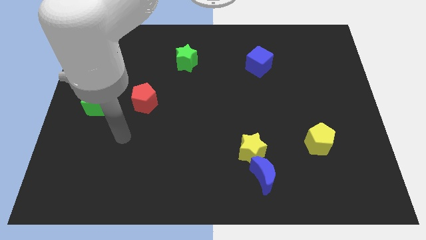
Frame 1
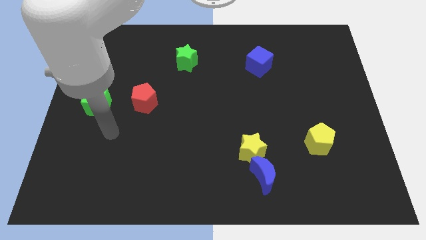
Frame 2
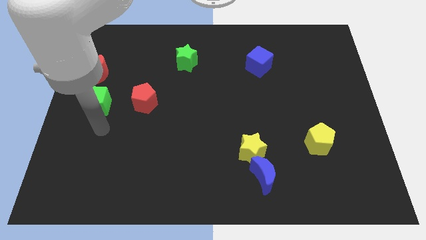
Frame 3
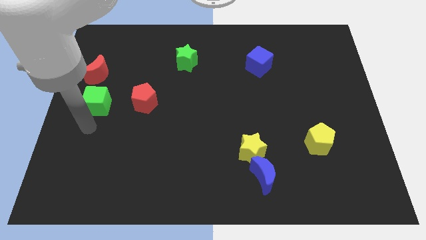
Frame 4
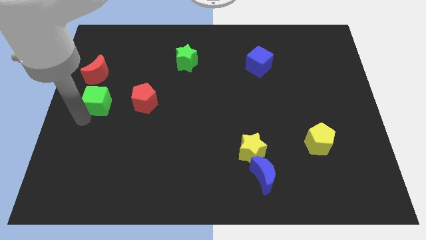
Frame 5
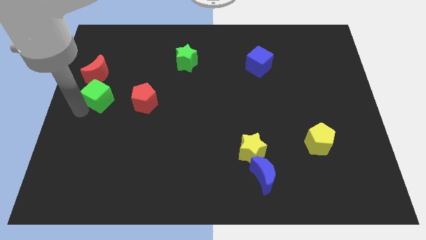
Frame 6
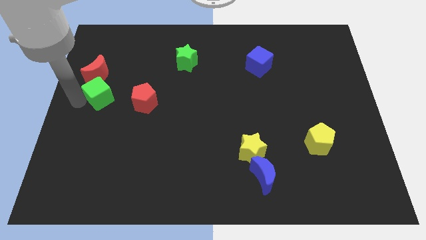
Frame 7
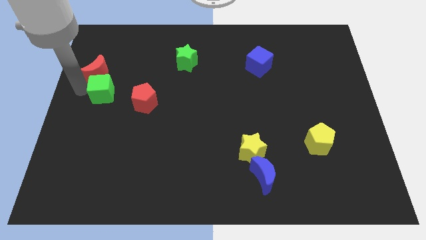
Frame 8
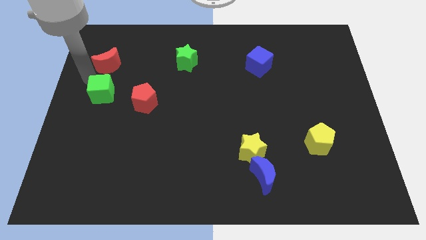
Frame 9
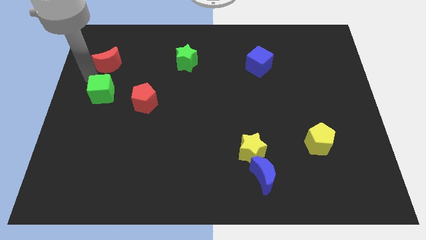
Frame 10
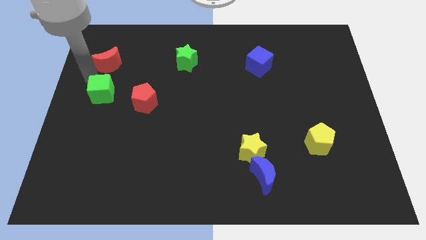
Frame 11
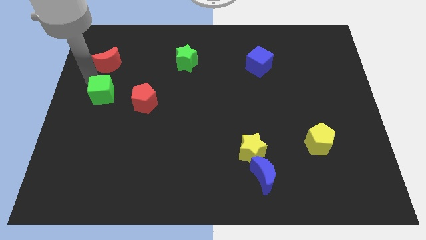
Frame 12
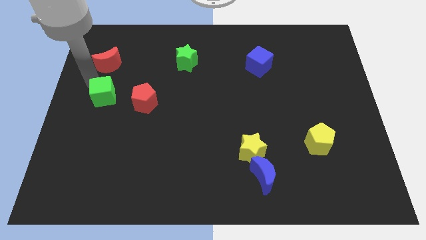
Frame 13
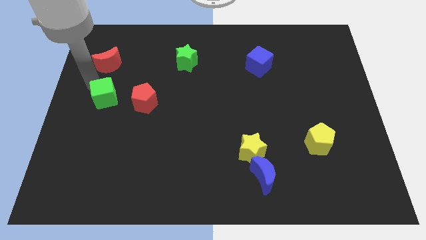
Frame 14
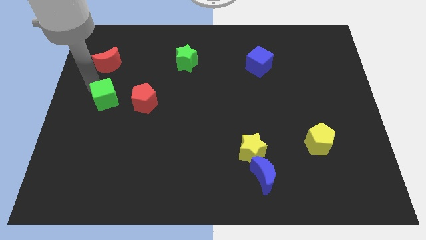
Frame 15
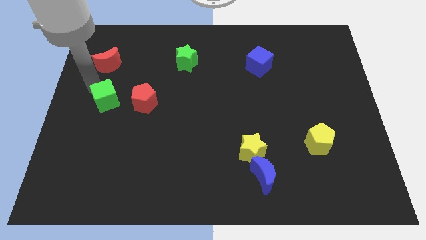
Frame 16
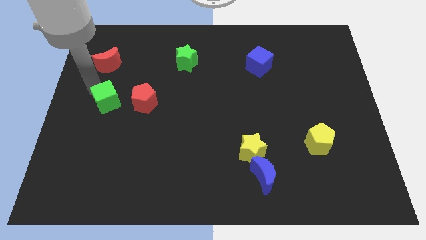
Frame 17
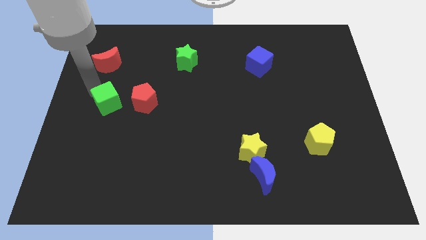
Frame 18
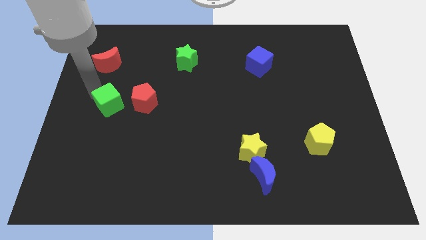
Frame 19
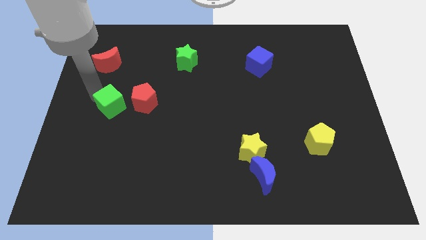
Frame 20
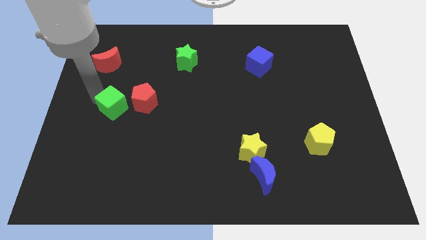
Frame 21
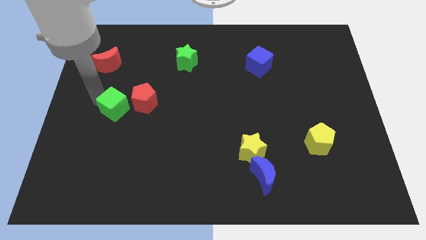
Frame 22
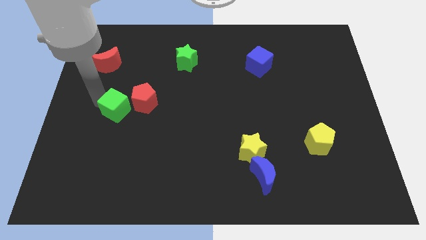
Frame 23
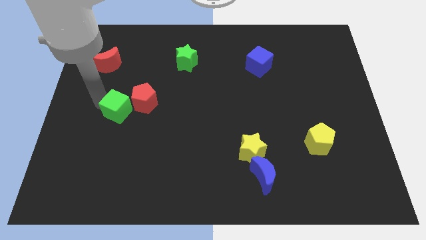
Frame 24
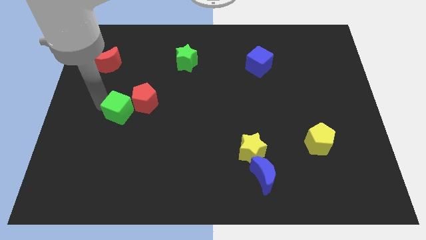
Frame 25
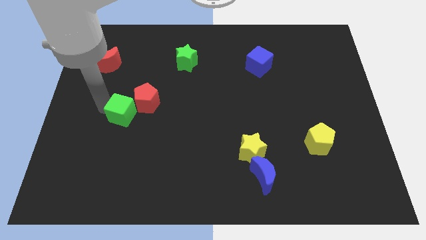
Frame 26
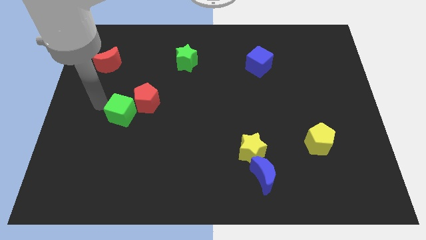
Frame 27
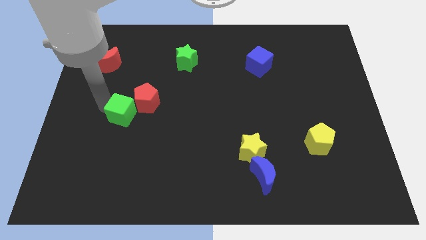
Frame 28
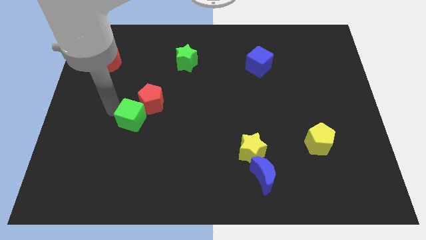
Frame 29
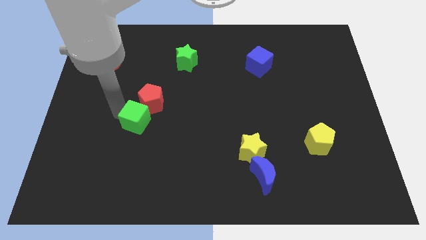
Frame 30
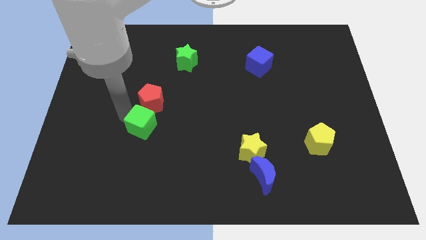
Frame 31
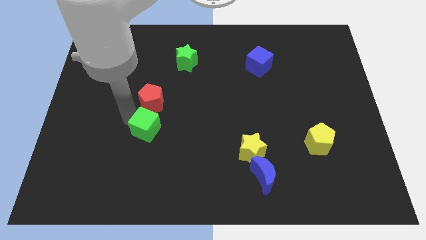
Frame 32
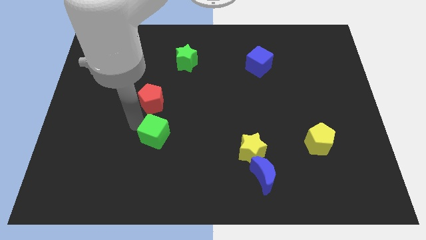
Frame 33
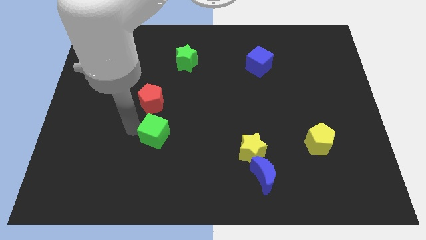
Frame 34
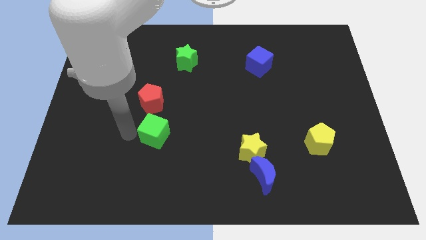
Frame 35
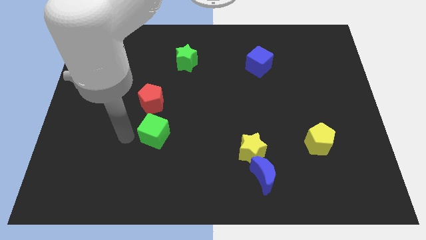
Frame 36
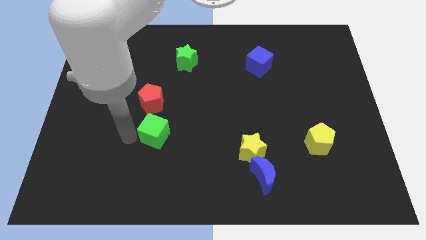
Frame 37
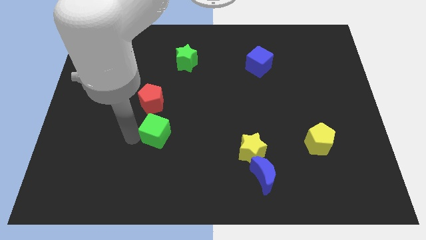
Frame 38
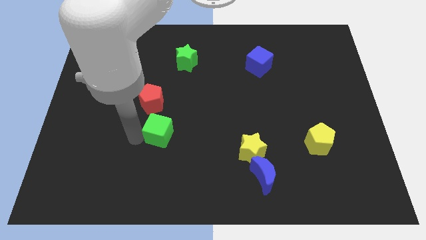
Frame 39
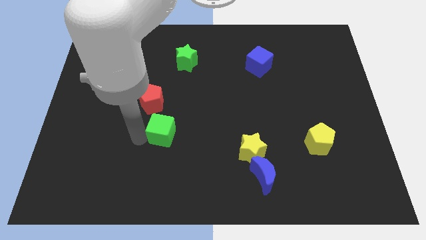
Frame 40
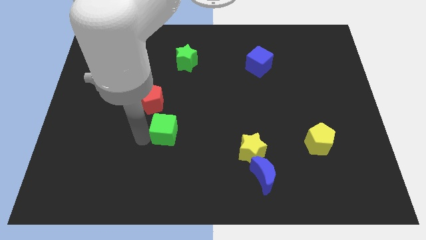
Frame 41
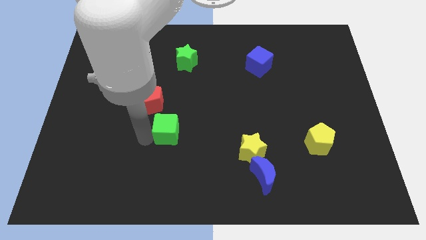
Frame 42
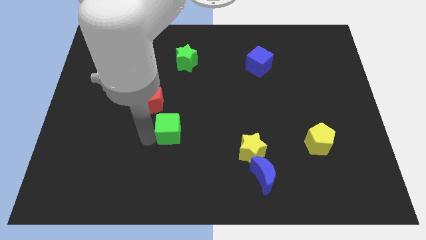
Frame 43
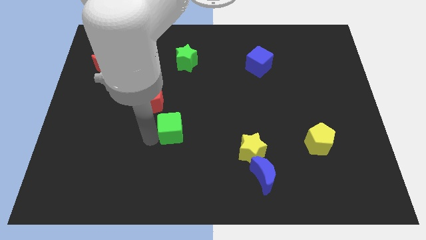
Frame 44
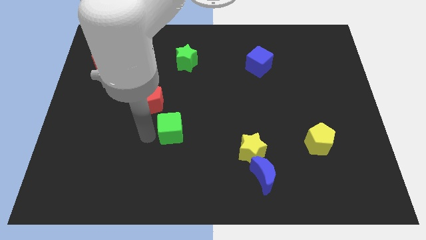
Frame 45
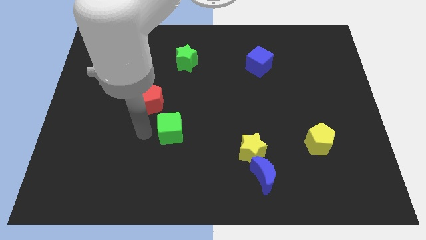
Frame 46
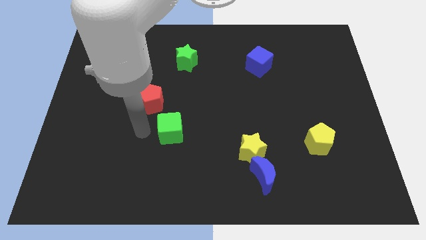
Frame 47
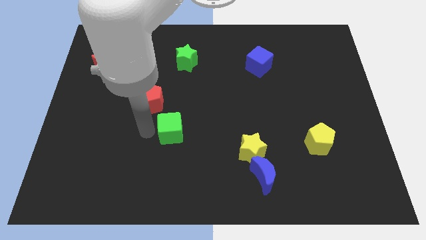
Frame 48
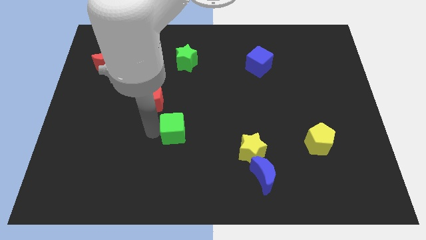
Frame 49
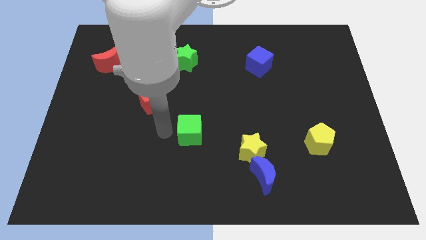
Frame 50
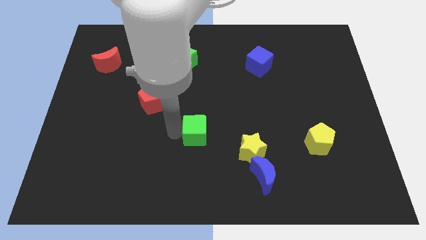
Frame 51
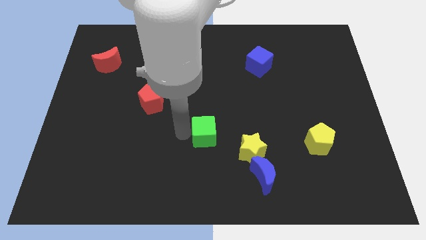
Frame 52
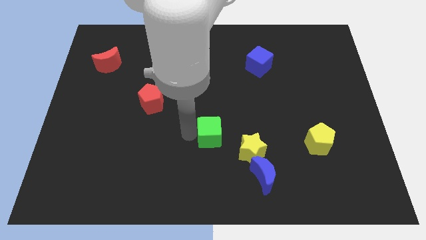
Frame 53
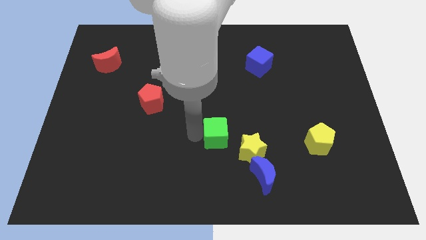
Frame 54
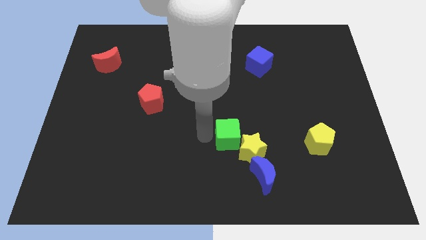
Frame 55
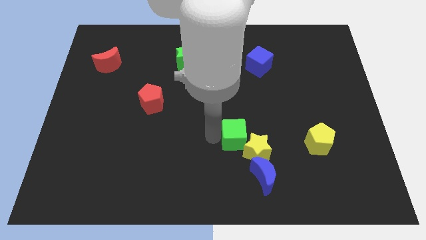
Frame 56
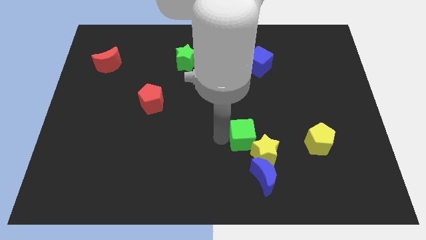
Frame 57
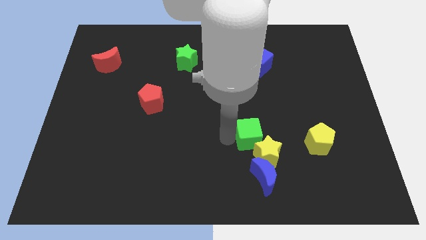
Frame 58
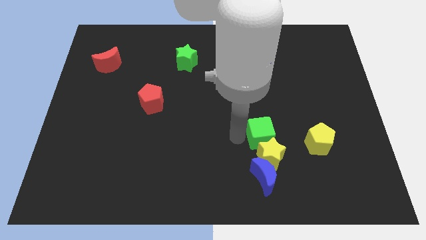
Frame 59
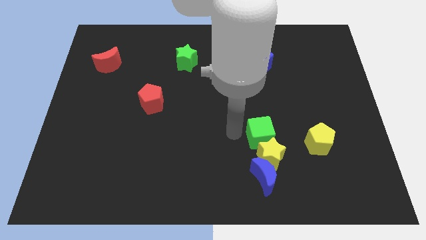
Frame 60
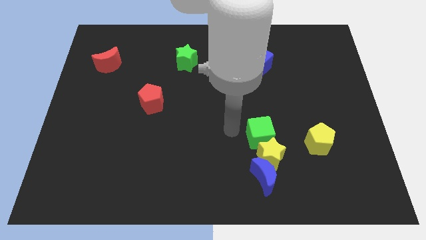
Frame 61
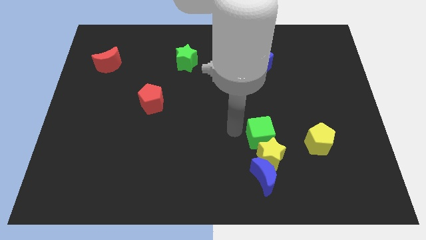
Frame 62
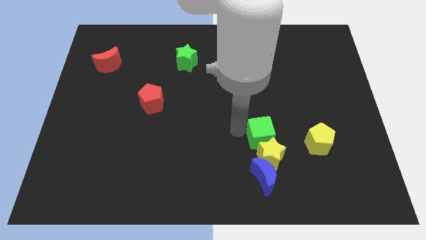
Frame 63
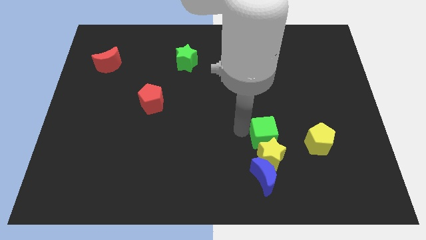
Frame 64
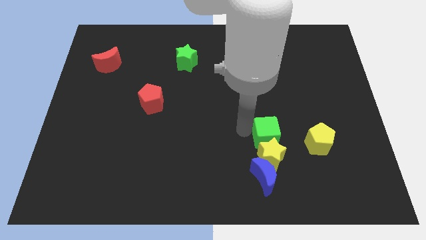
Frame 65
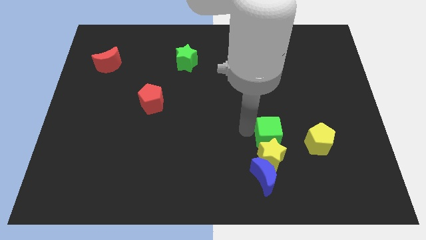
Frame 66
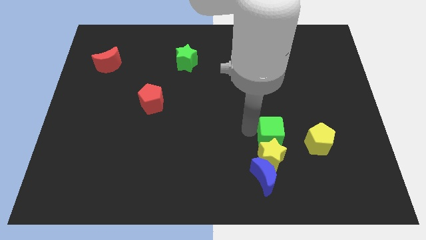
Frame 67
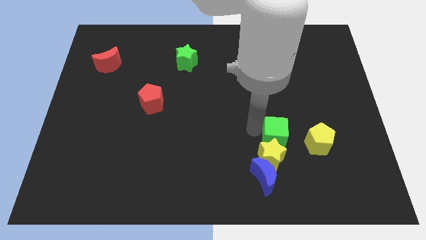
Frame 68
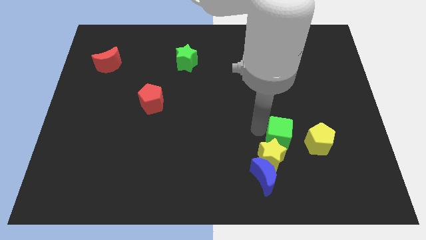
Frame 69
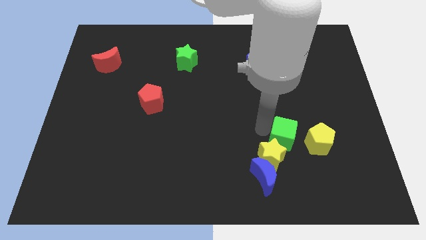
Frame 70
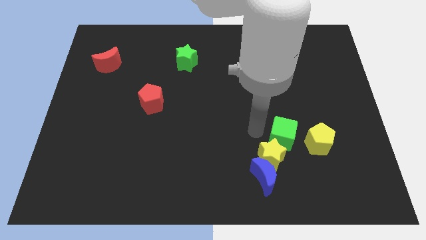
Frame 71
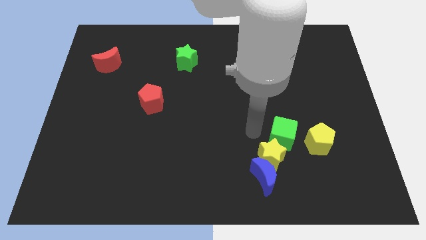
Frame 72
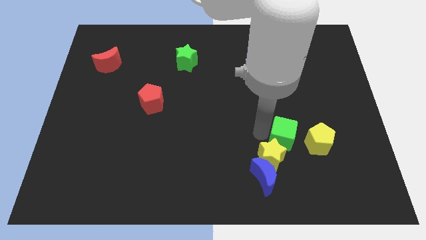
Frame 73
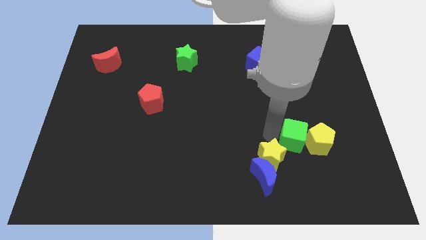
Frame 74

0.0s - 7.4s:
move the green cube next to the yellow pentagon
